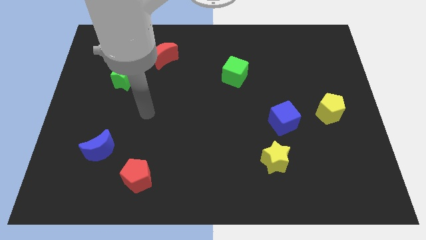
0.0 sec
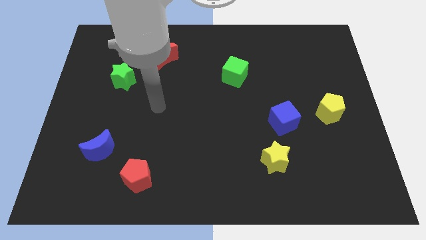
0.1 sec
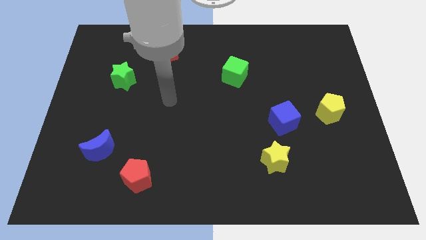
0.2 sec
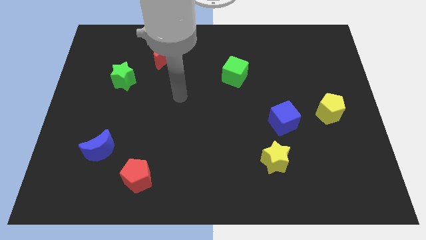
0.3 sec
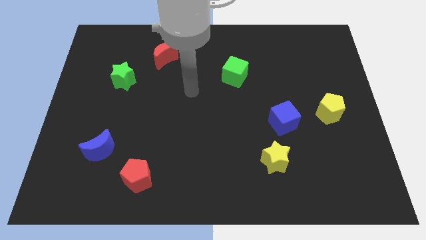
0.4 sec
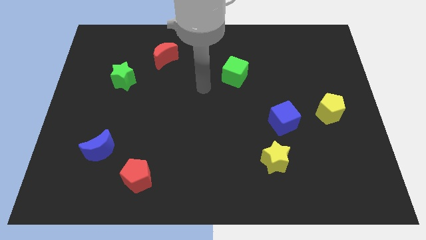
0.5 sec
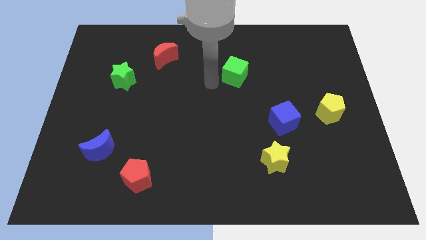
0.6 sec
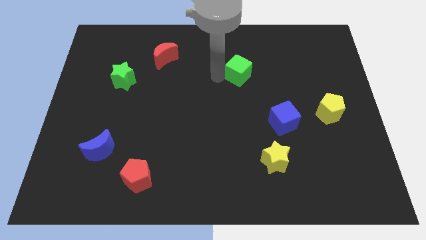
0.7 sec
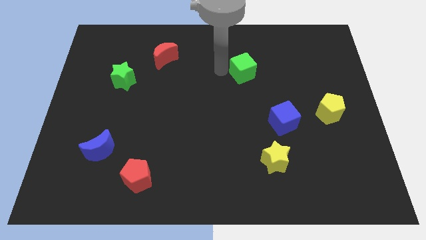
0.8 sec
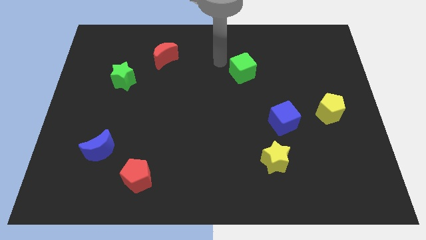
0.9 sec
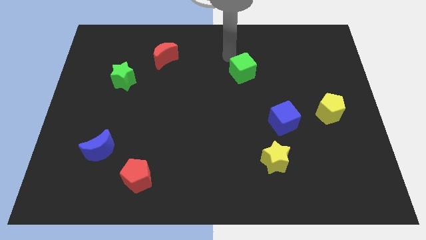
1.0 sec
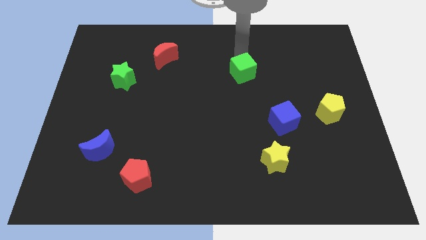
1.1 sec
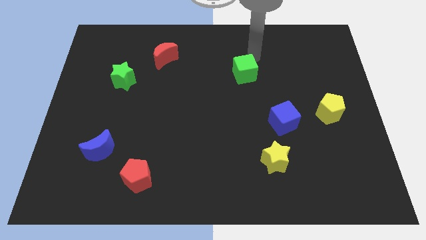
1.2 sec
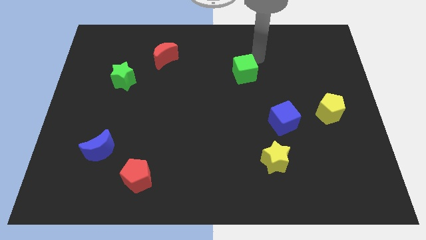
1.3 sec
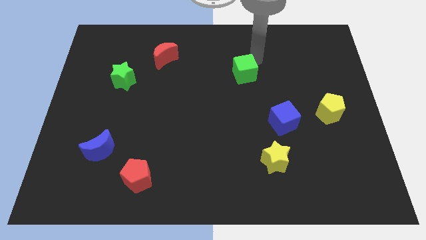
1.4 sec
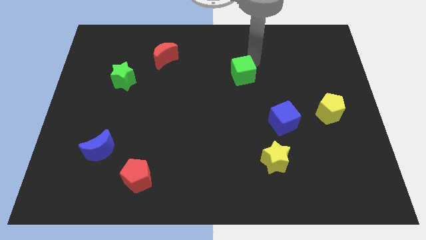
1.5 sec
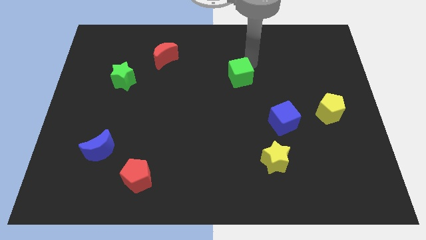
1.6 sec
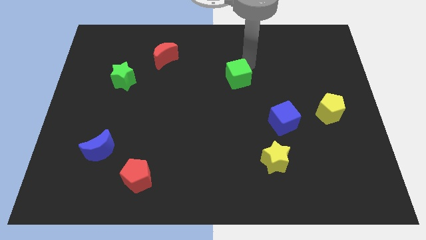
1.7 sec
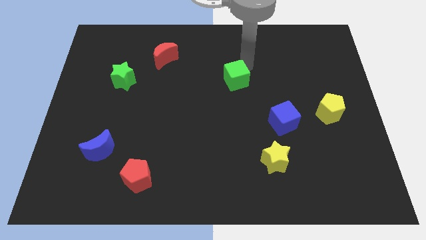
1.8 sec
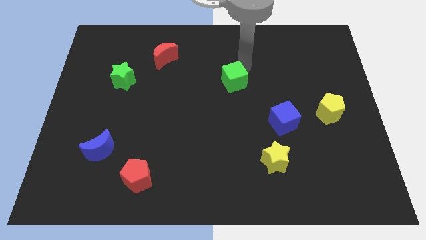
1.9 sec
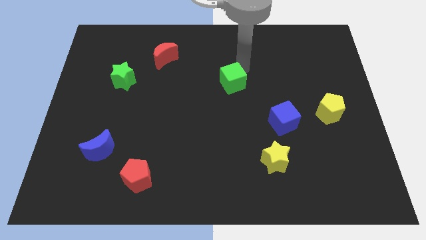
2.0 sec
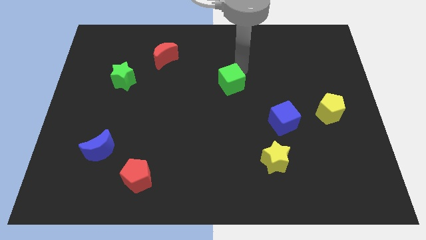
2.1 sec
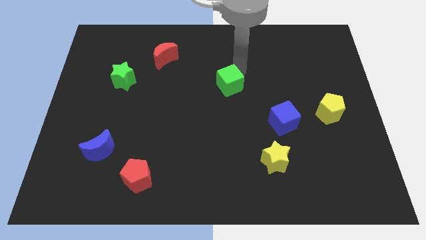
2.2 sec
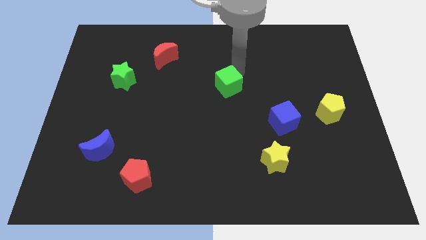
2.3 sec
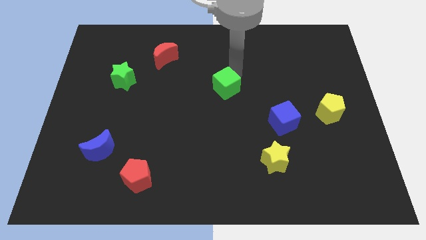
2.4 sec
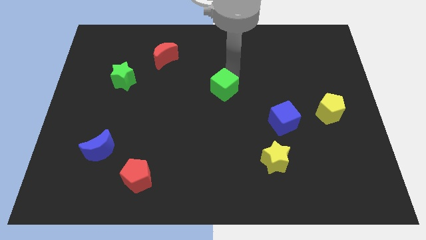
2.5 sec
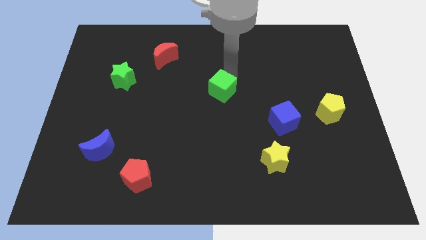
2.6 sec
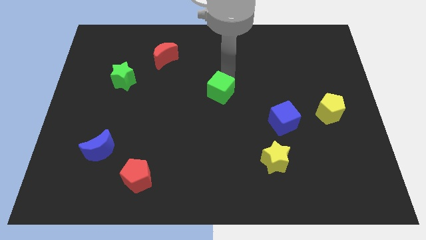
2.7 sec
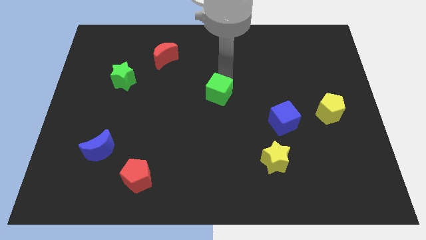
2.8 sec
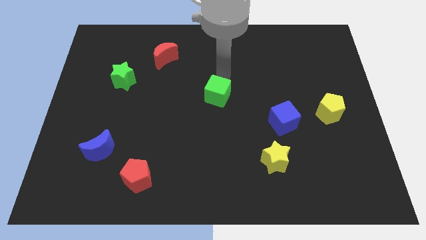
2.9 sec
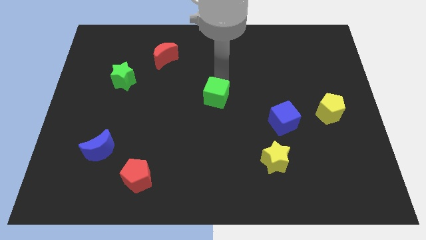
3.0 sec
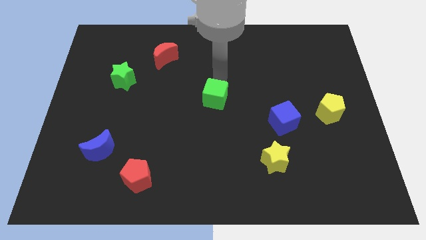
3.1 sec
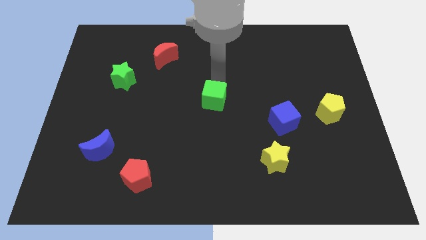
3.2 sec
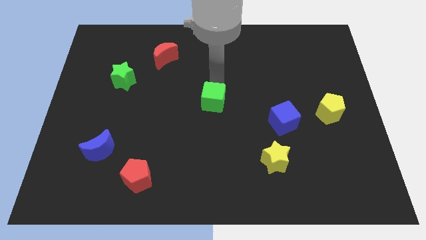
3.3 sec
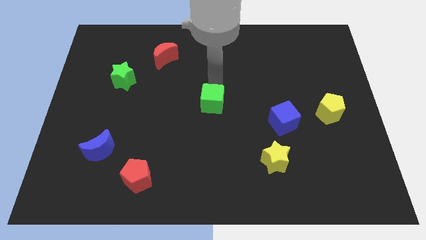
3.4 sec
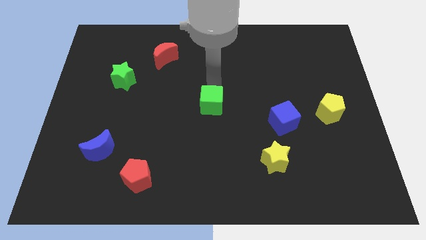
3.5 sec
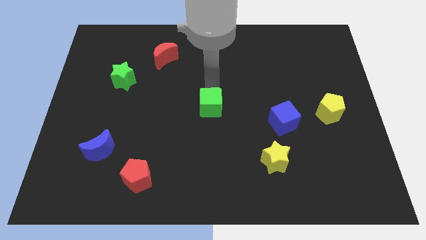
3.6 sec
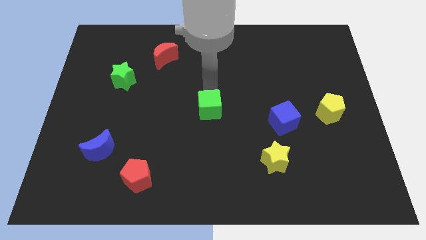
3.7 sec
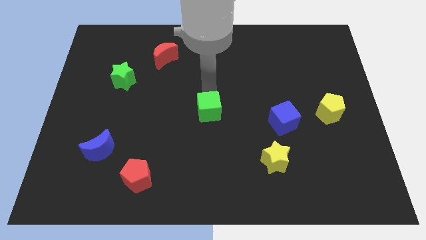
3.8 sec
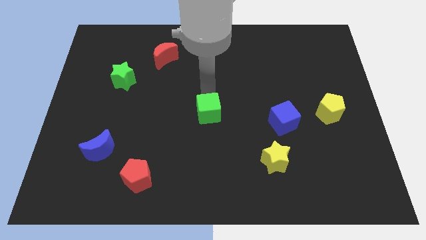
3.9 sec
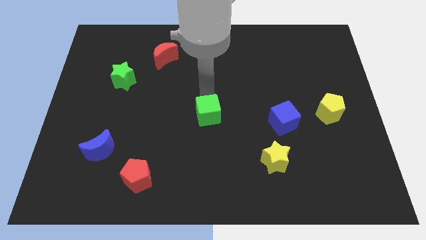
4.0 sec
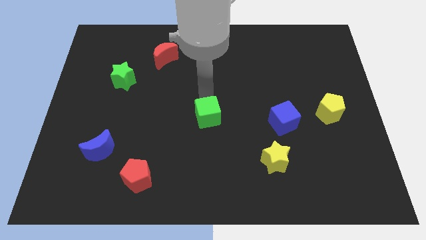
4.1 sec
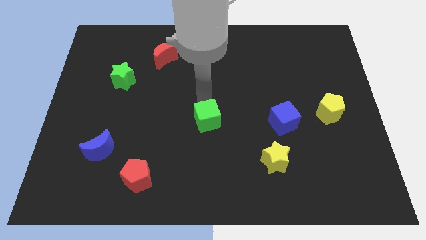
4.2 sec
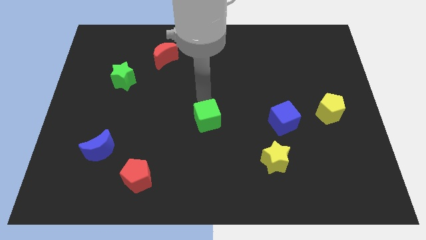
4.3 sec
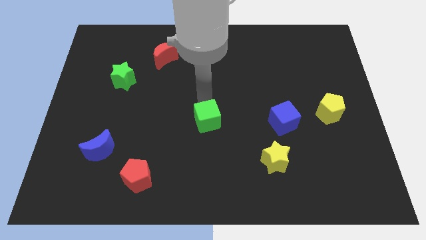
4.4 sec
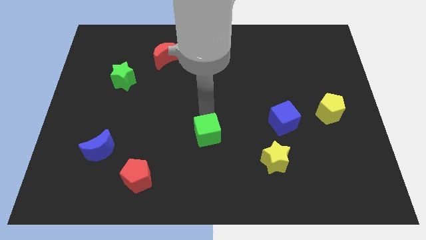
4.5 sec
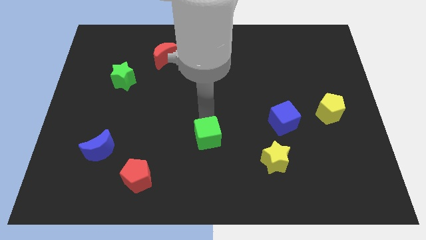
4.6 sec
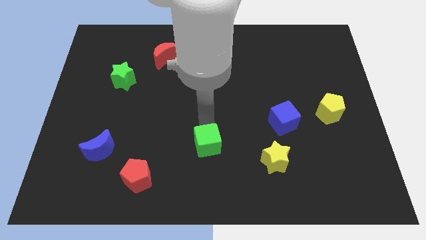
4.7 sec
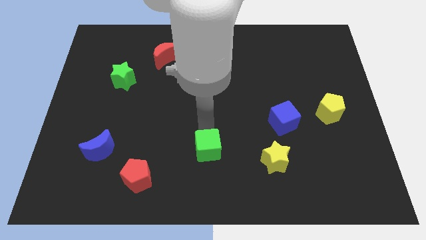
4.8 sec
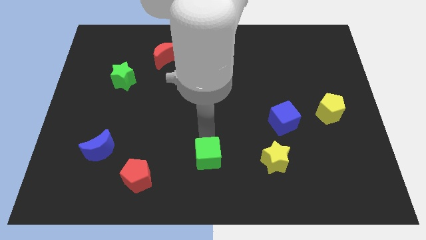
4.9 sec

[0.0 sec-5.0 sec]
put the green cube to the bottom

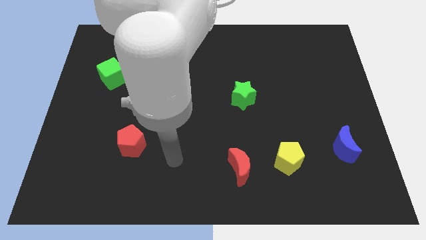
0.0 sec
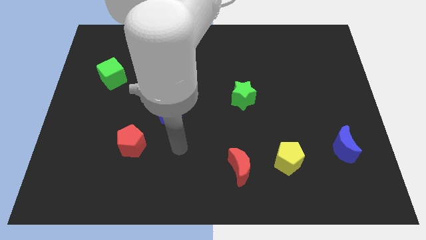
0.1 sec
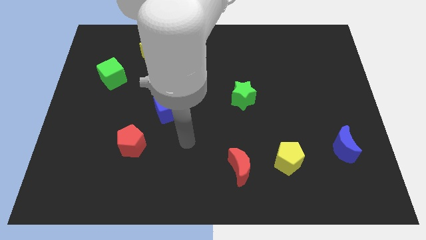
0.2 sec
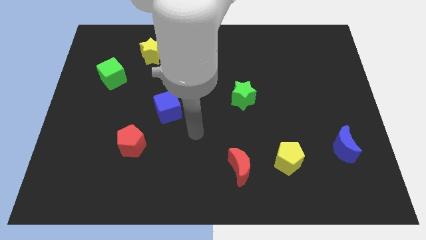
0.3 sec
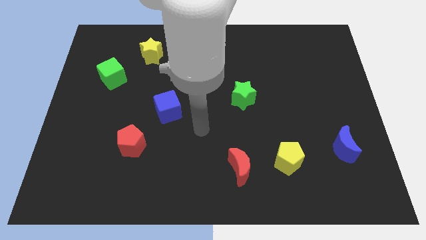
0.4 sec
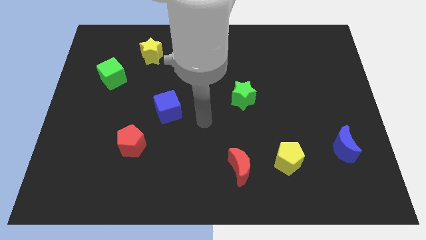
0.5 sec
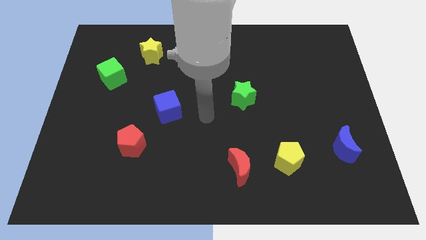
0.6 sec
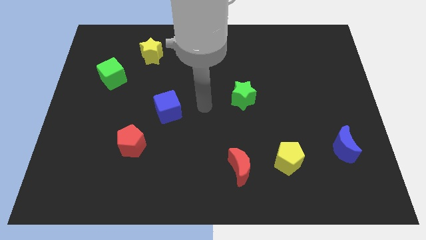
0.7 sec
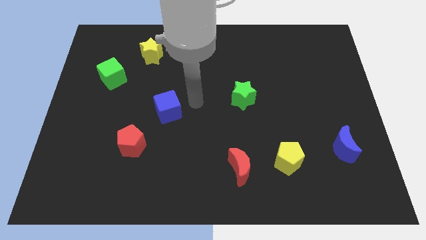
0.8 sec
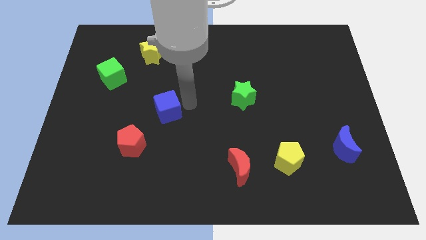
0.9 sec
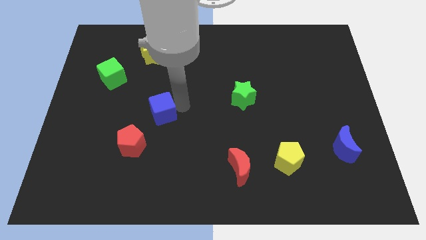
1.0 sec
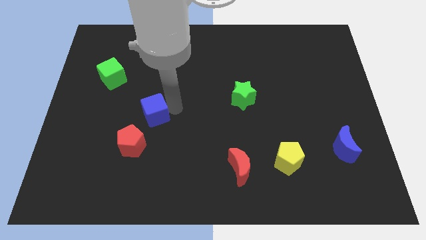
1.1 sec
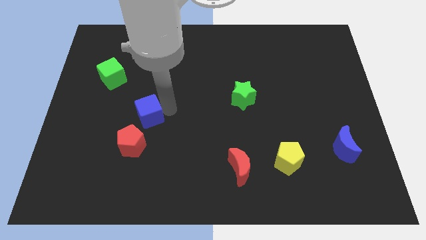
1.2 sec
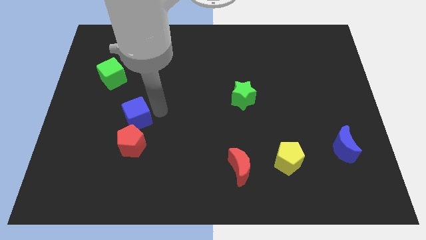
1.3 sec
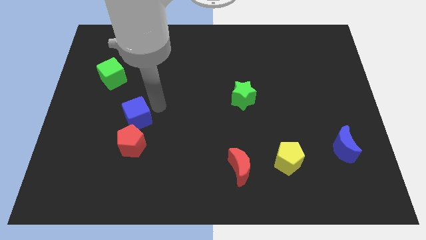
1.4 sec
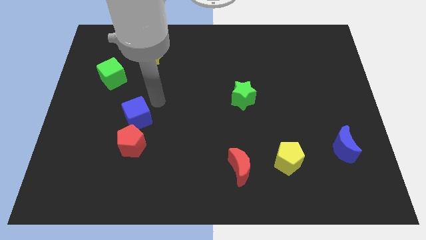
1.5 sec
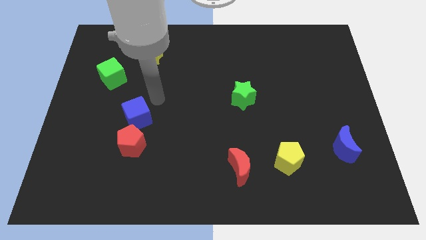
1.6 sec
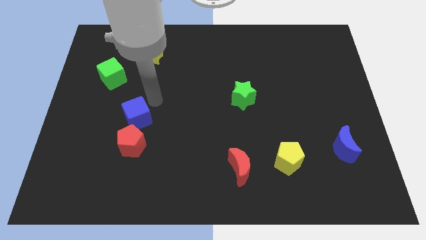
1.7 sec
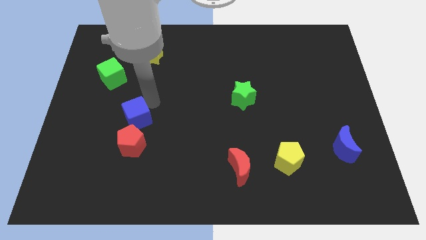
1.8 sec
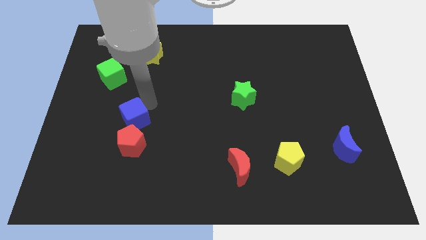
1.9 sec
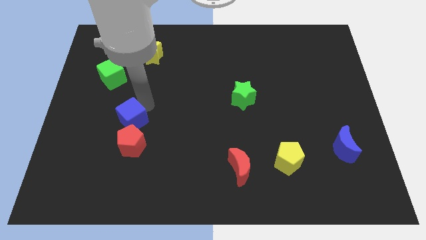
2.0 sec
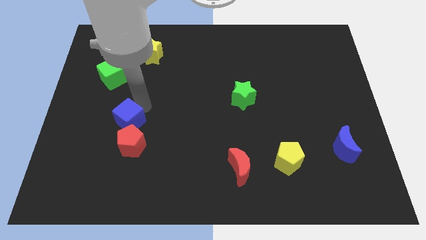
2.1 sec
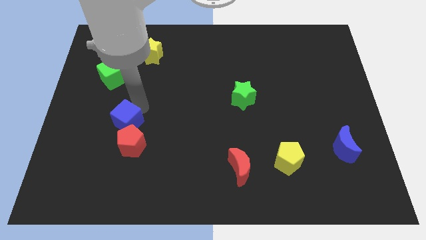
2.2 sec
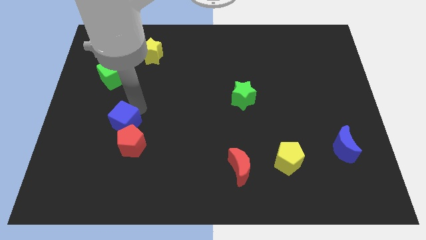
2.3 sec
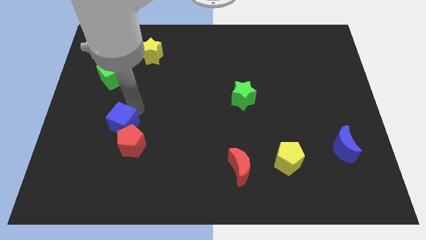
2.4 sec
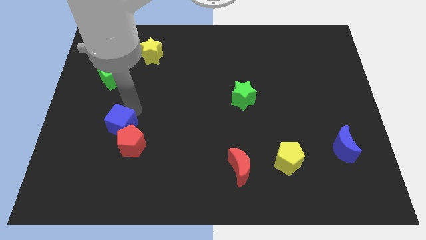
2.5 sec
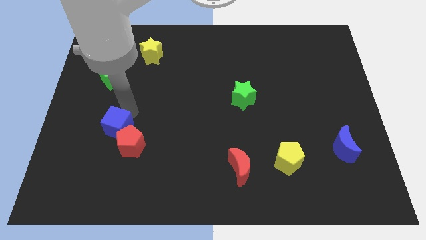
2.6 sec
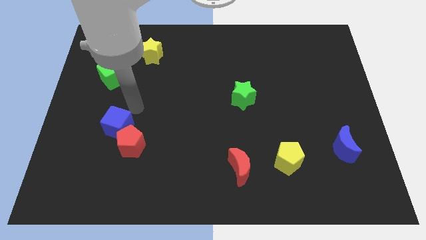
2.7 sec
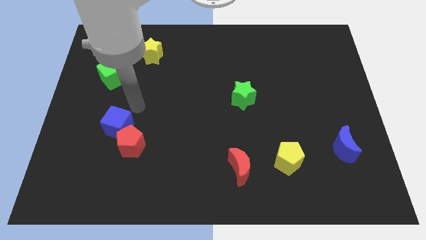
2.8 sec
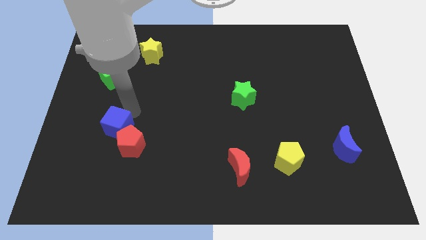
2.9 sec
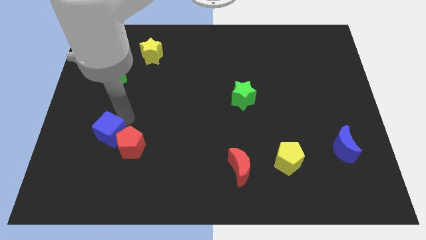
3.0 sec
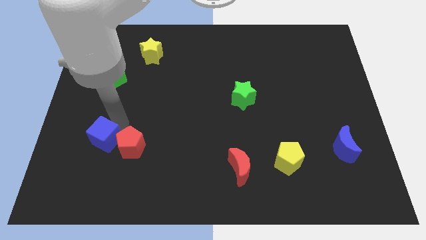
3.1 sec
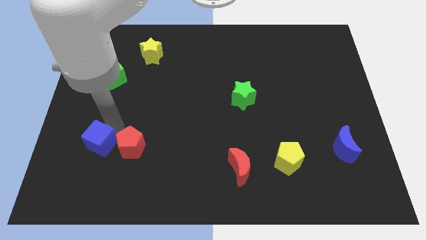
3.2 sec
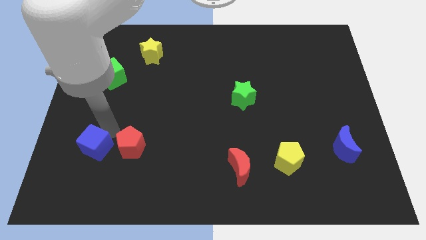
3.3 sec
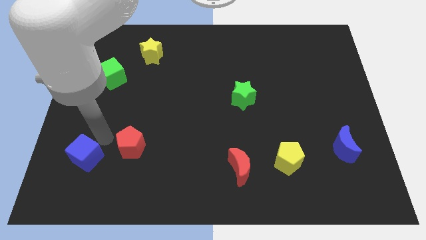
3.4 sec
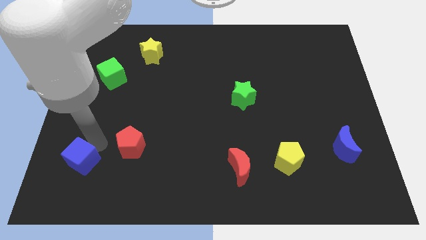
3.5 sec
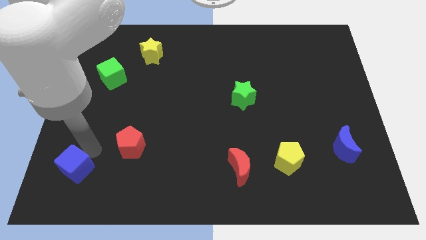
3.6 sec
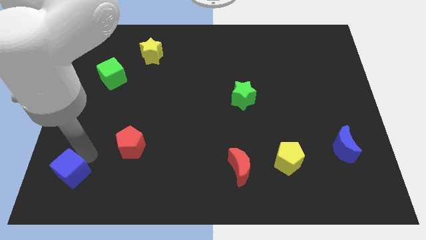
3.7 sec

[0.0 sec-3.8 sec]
push the blue cube to the bottom left
